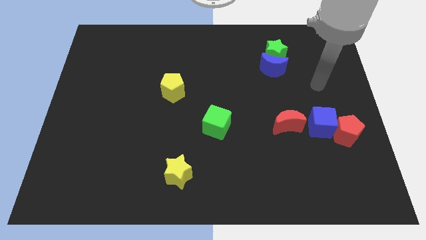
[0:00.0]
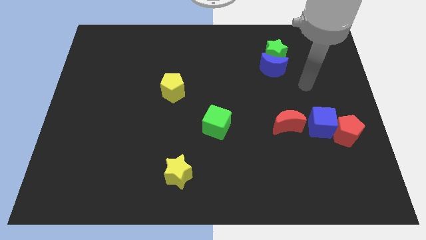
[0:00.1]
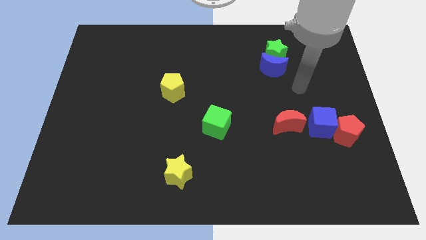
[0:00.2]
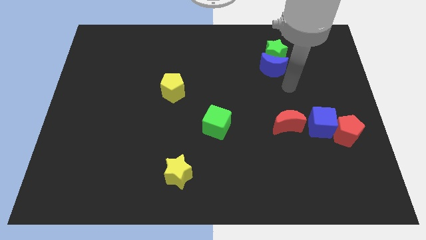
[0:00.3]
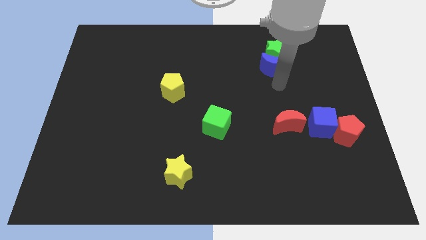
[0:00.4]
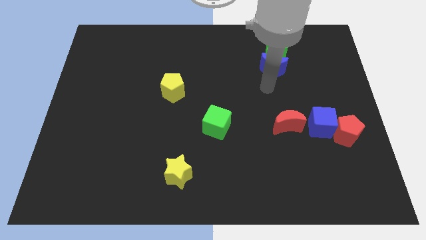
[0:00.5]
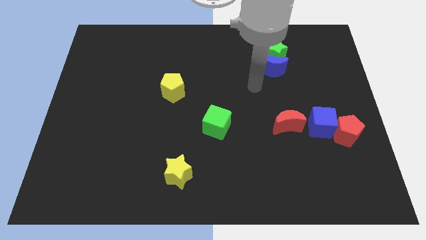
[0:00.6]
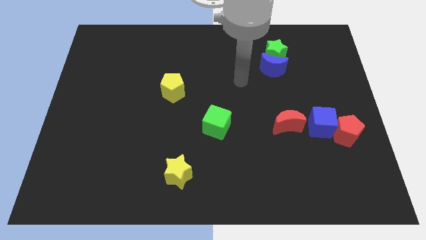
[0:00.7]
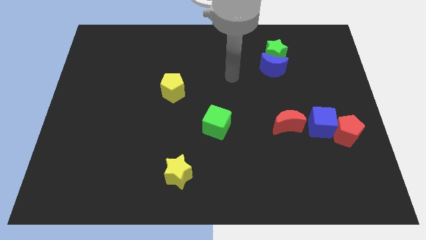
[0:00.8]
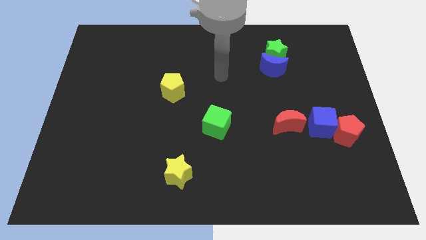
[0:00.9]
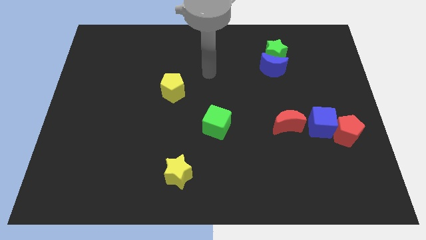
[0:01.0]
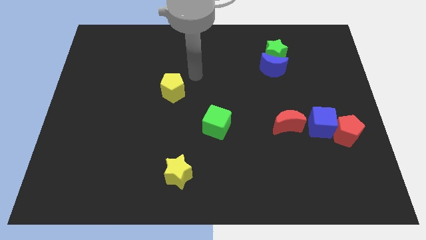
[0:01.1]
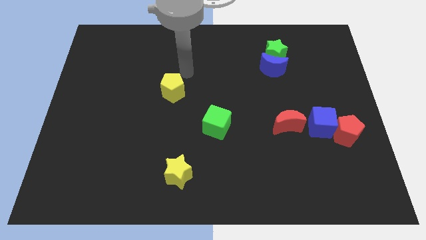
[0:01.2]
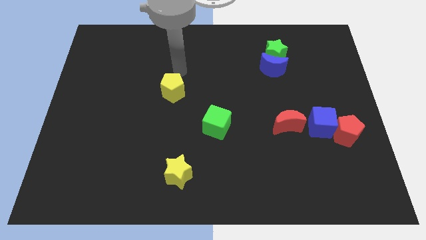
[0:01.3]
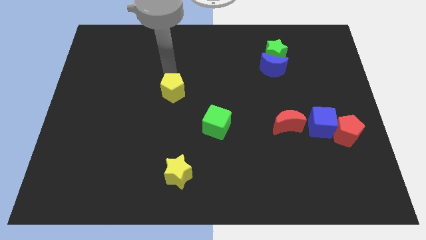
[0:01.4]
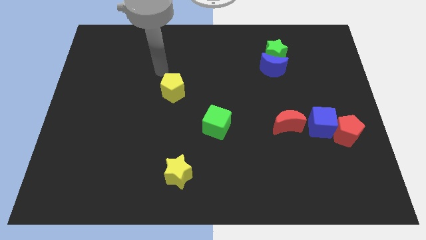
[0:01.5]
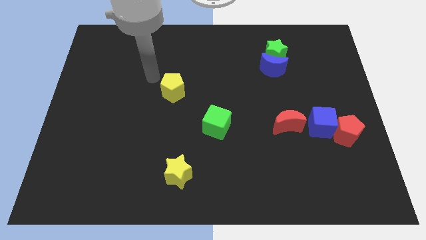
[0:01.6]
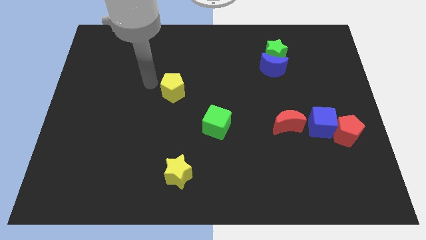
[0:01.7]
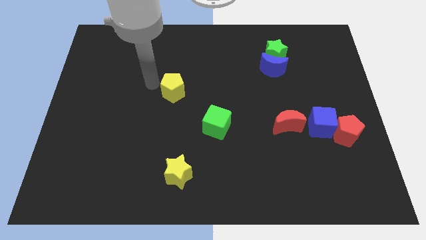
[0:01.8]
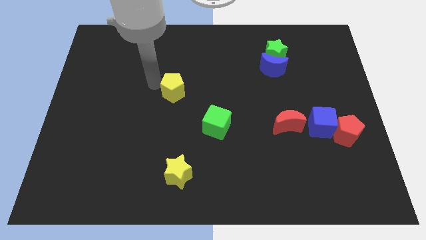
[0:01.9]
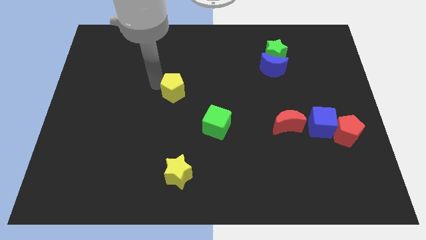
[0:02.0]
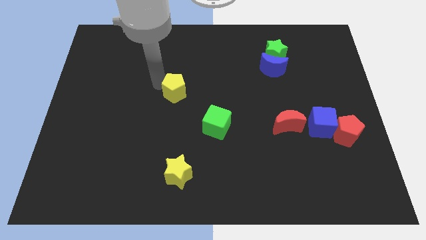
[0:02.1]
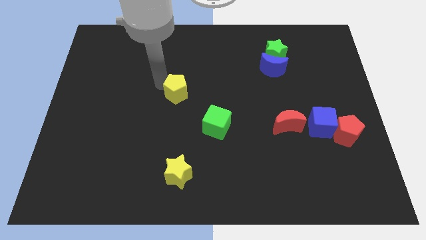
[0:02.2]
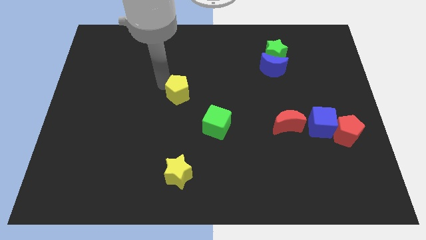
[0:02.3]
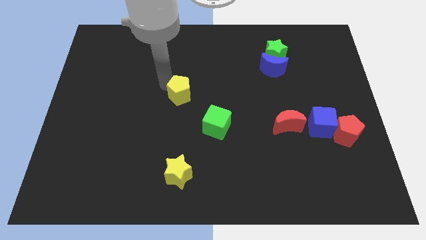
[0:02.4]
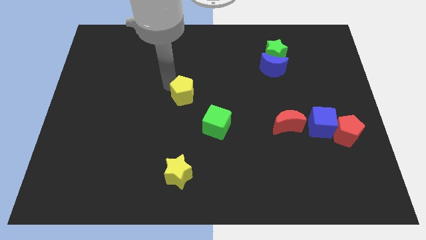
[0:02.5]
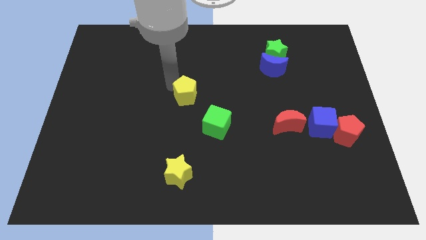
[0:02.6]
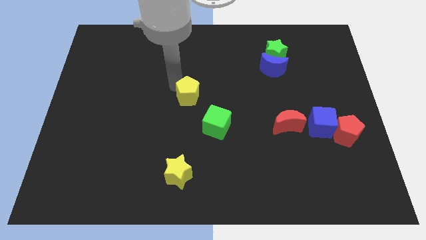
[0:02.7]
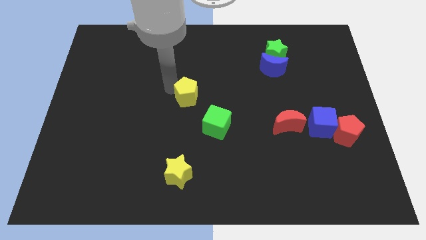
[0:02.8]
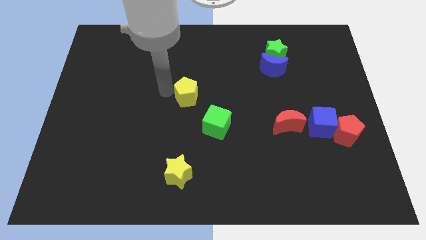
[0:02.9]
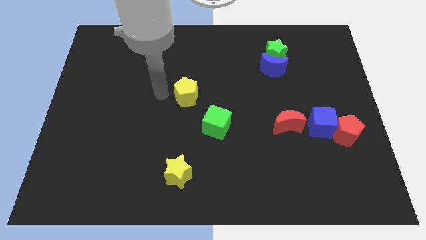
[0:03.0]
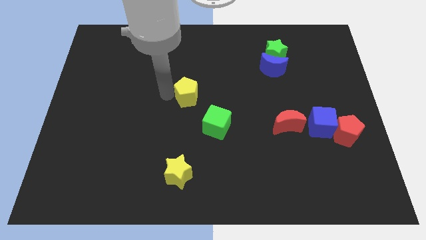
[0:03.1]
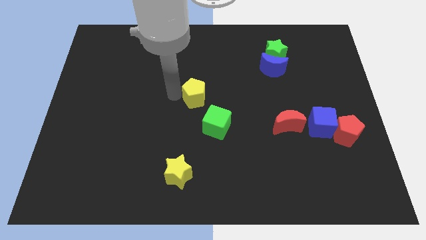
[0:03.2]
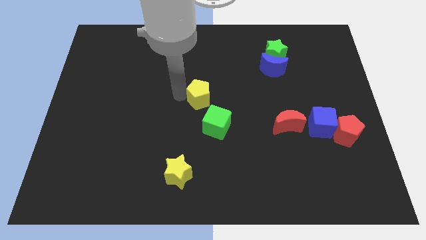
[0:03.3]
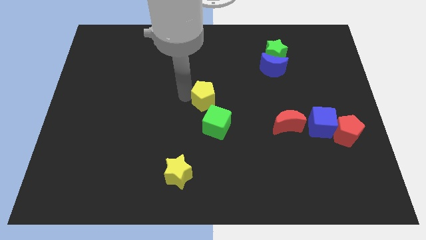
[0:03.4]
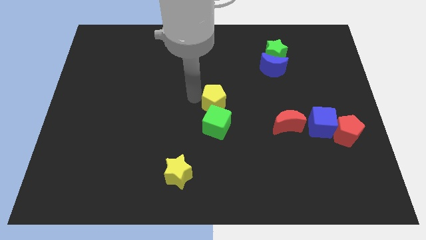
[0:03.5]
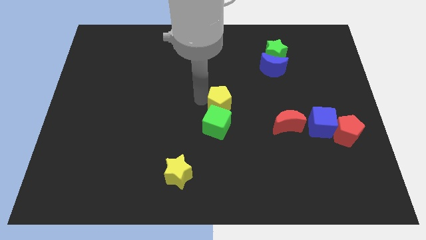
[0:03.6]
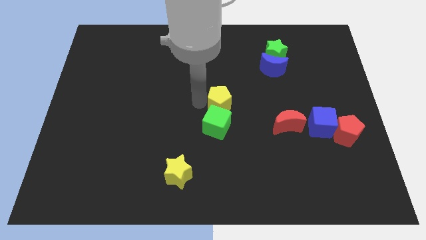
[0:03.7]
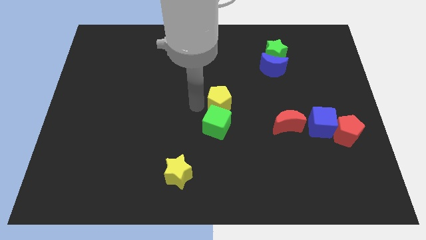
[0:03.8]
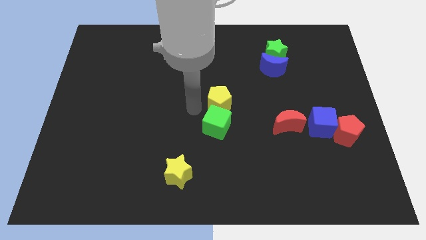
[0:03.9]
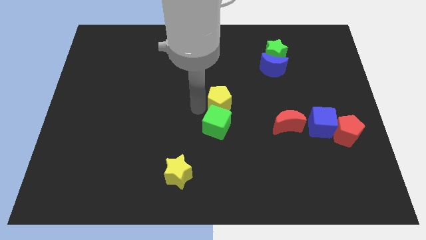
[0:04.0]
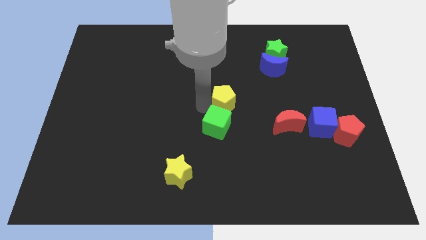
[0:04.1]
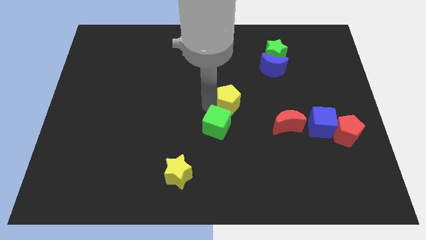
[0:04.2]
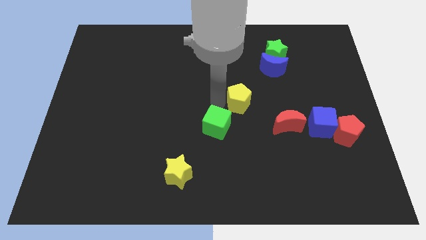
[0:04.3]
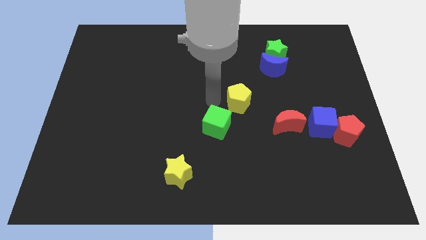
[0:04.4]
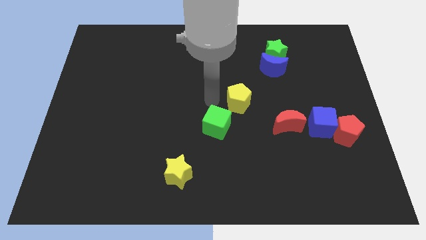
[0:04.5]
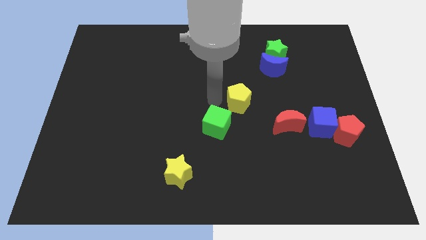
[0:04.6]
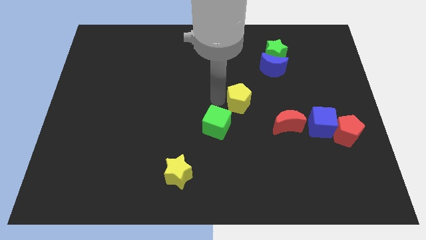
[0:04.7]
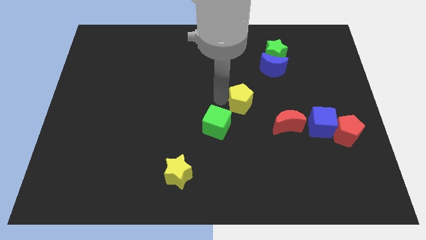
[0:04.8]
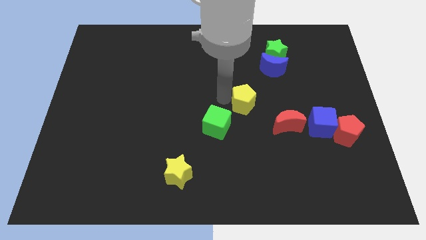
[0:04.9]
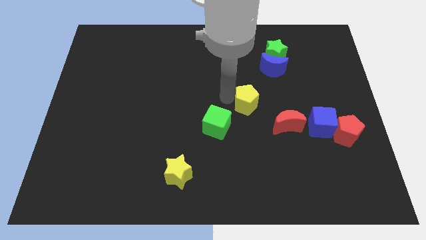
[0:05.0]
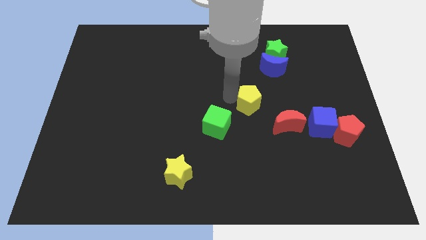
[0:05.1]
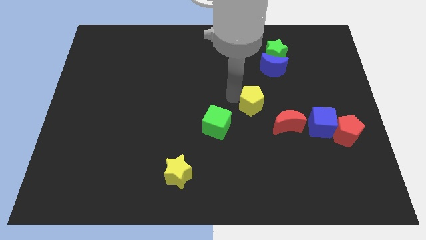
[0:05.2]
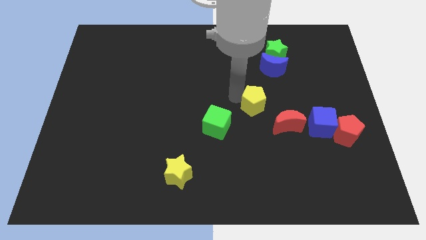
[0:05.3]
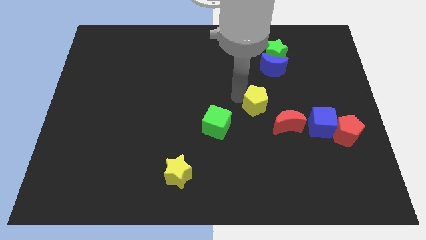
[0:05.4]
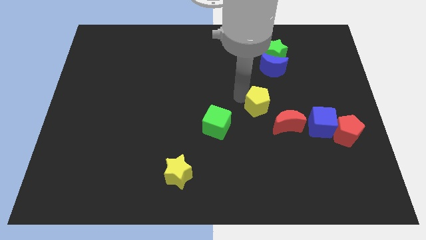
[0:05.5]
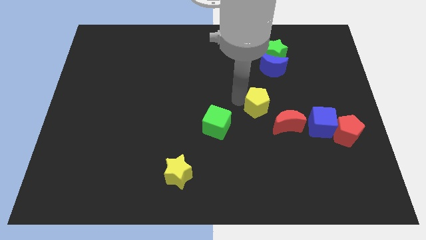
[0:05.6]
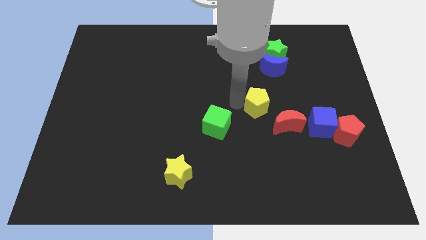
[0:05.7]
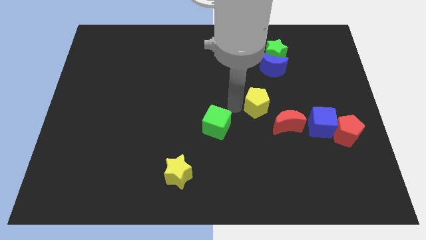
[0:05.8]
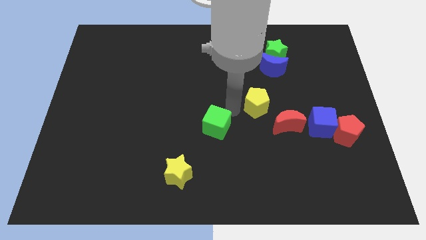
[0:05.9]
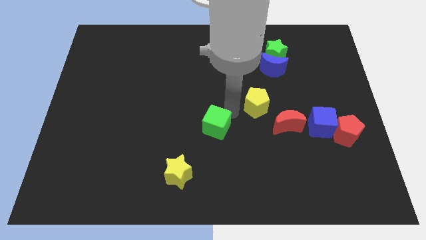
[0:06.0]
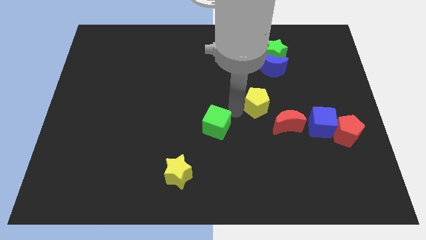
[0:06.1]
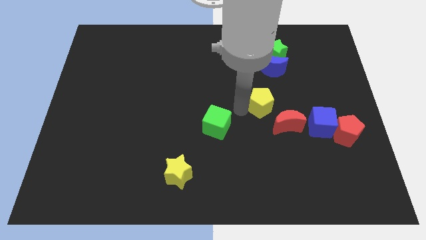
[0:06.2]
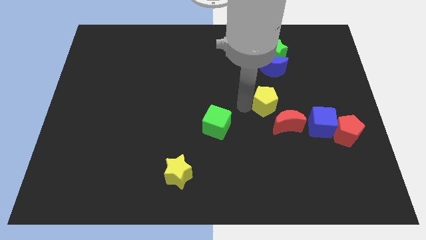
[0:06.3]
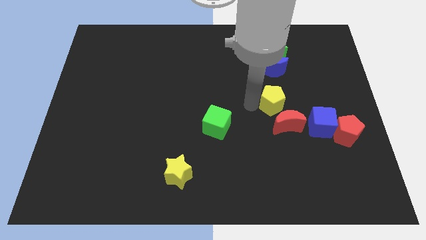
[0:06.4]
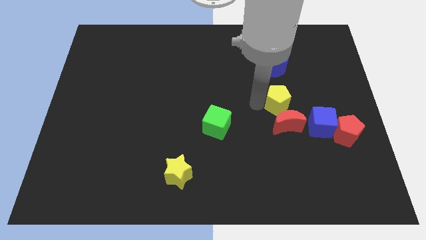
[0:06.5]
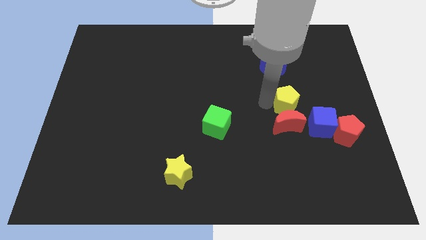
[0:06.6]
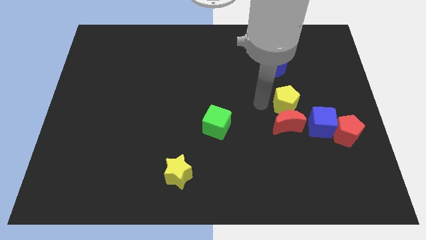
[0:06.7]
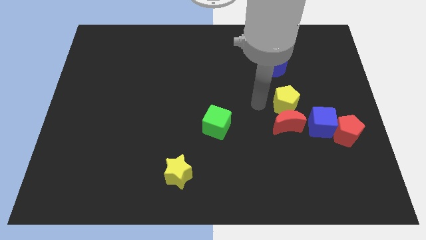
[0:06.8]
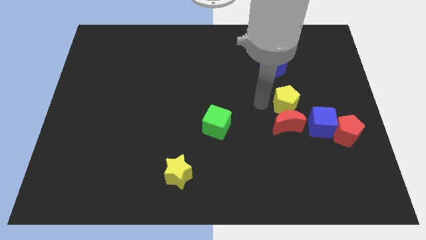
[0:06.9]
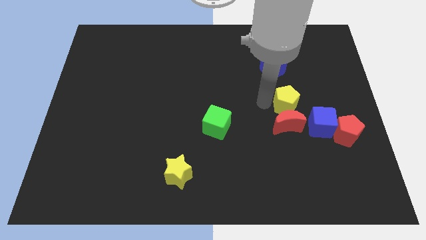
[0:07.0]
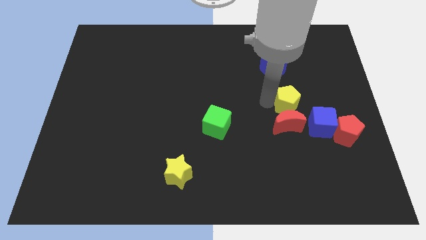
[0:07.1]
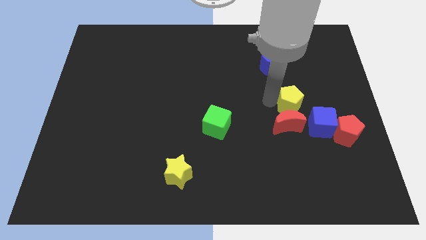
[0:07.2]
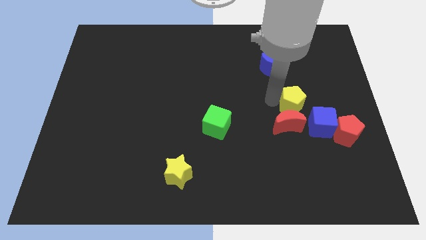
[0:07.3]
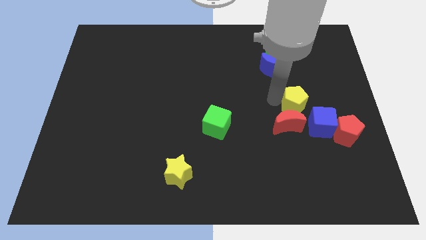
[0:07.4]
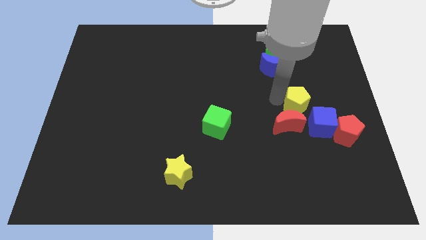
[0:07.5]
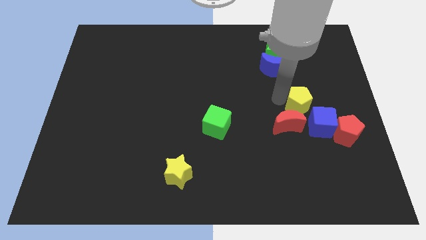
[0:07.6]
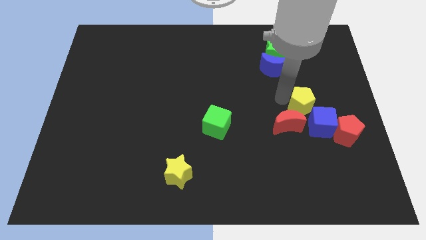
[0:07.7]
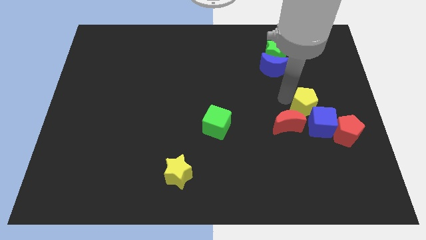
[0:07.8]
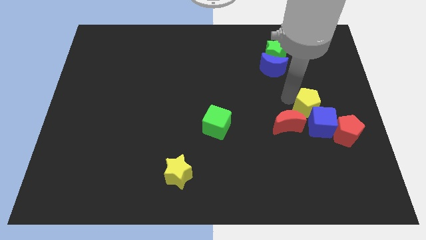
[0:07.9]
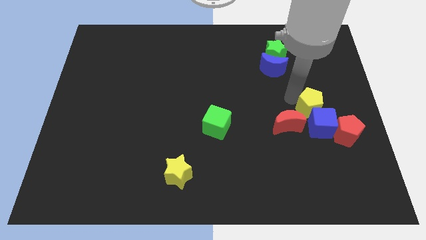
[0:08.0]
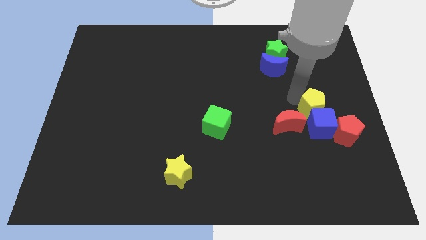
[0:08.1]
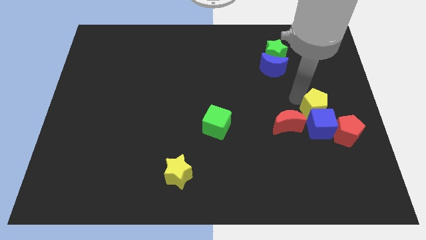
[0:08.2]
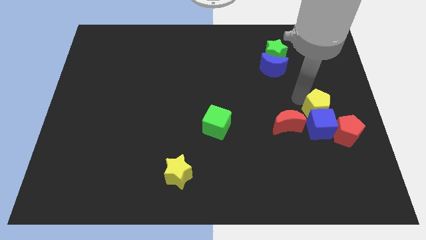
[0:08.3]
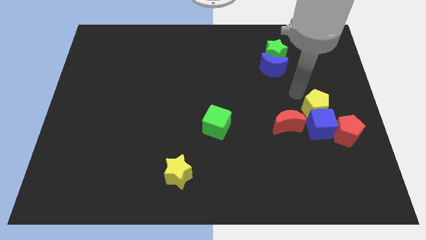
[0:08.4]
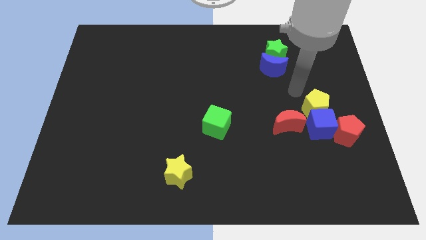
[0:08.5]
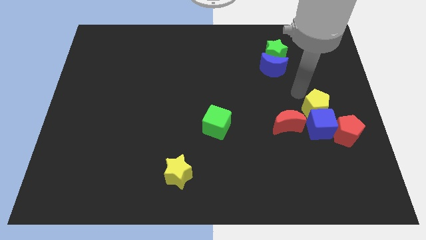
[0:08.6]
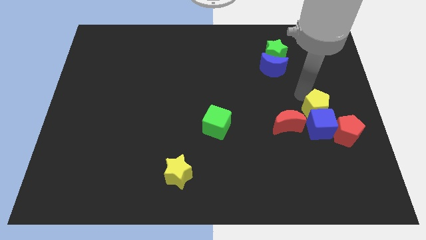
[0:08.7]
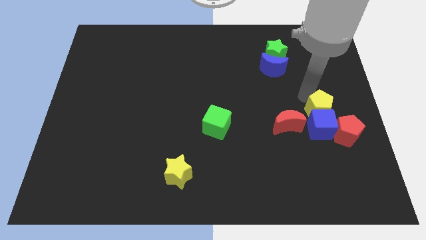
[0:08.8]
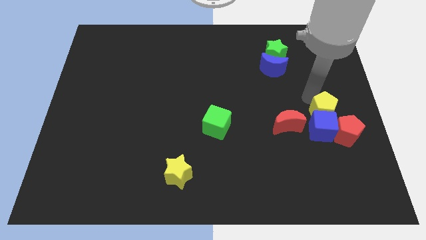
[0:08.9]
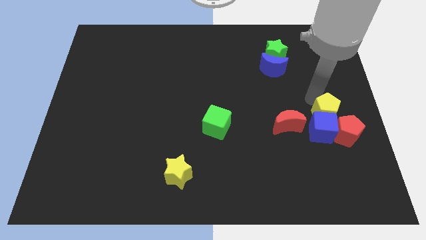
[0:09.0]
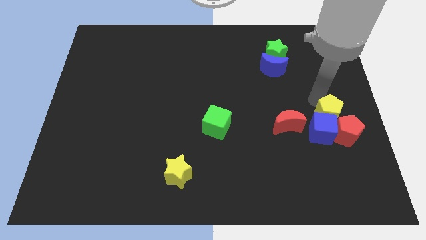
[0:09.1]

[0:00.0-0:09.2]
put the yellow pentagon close to the red pentagon
